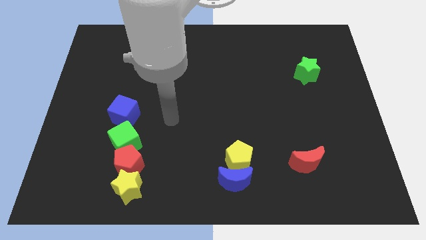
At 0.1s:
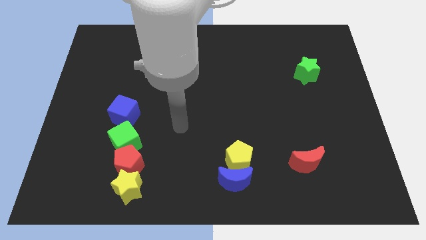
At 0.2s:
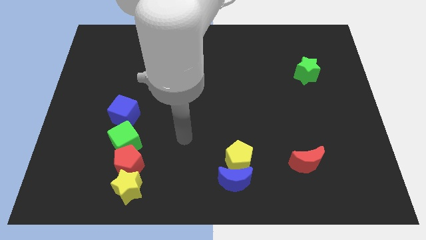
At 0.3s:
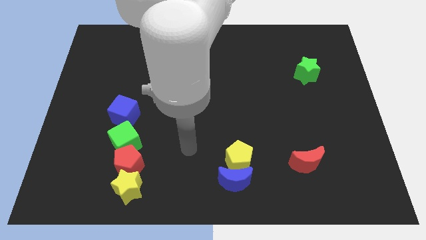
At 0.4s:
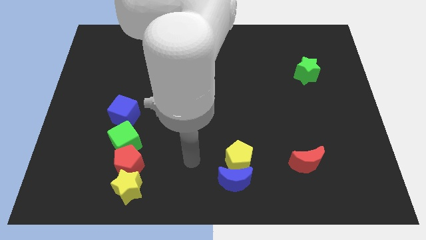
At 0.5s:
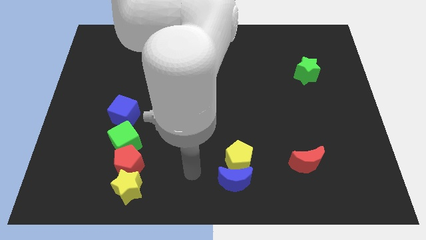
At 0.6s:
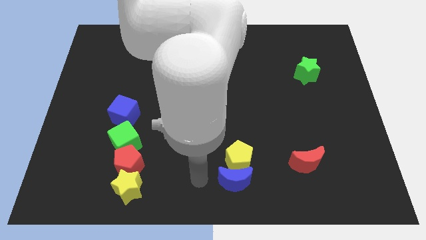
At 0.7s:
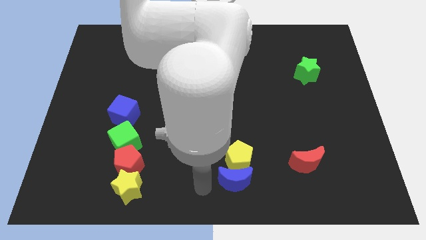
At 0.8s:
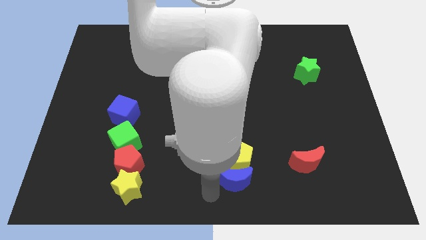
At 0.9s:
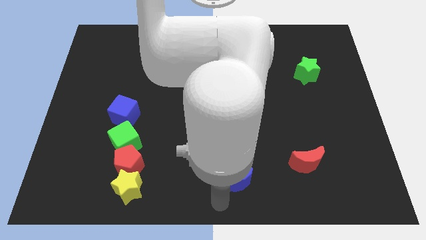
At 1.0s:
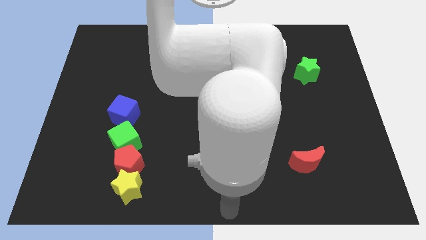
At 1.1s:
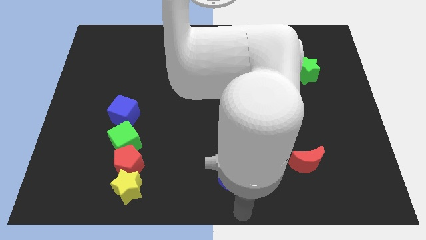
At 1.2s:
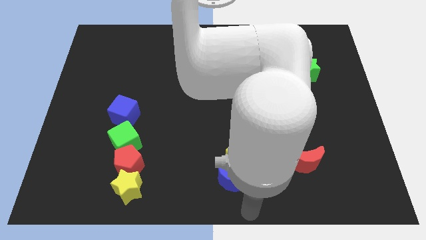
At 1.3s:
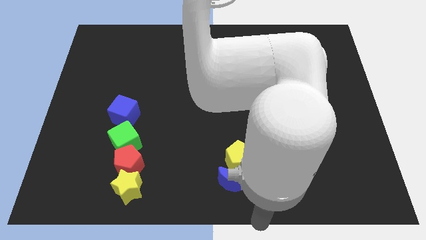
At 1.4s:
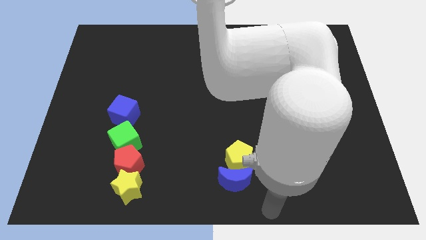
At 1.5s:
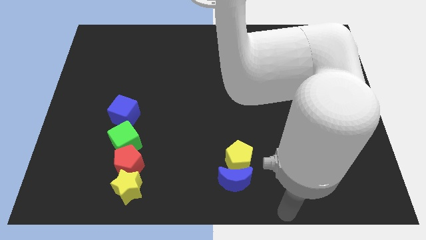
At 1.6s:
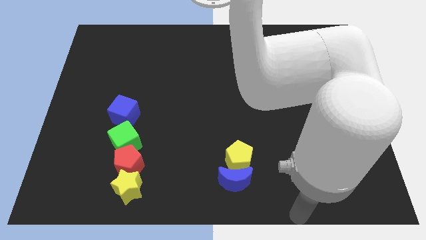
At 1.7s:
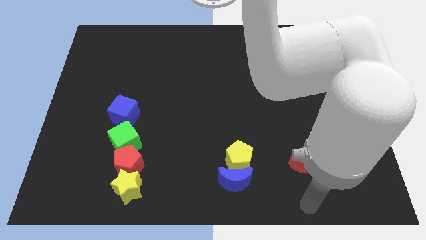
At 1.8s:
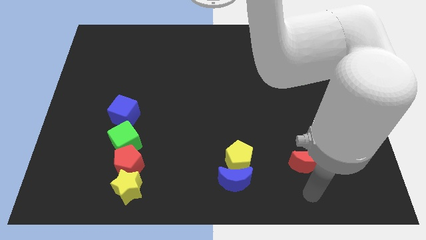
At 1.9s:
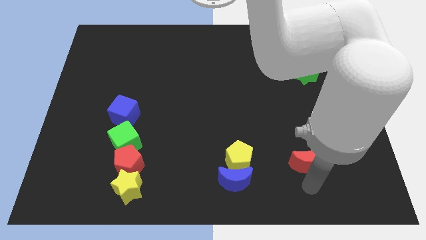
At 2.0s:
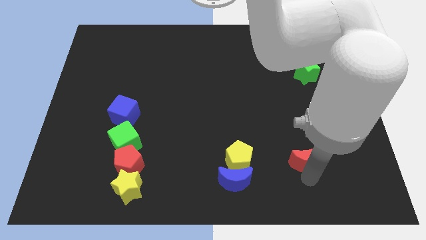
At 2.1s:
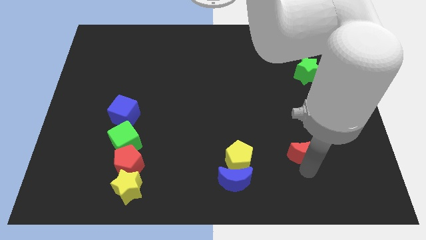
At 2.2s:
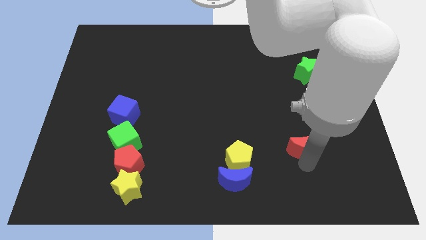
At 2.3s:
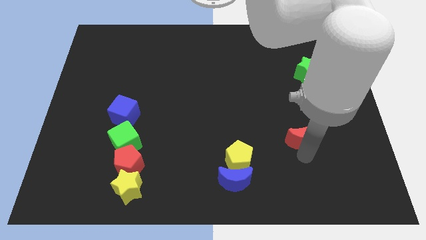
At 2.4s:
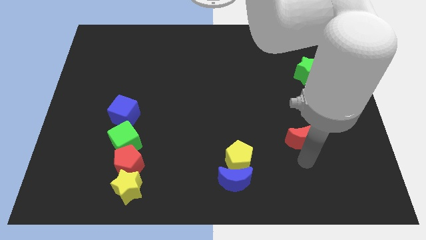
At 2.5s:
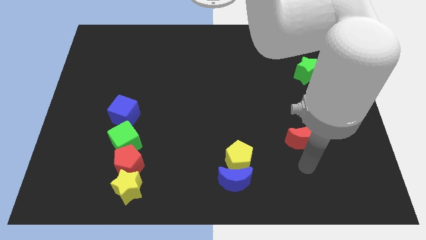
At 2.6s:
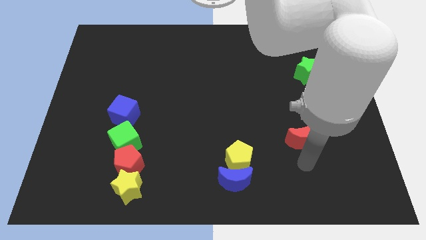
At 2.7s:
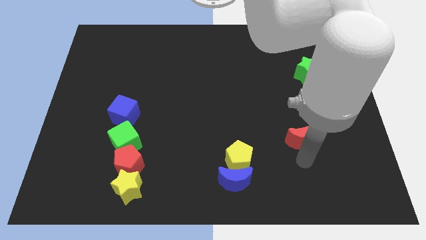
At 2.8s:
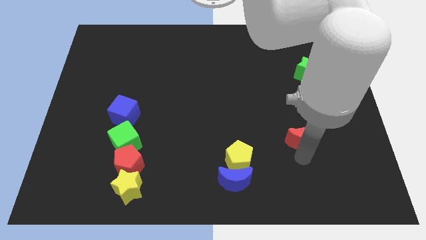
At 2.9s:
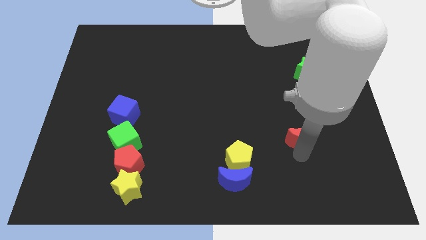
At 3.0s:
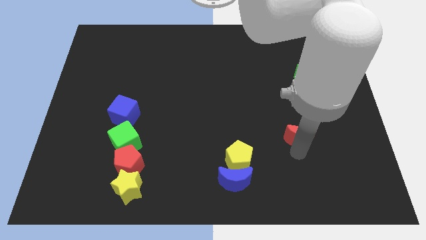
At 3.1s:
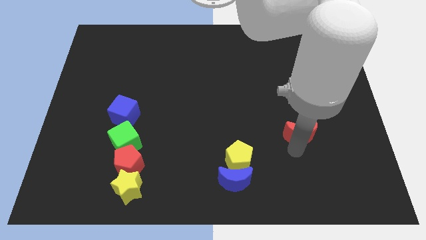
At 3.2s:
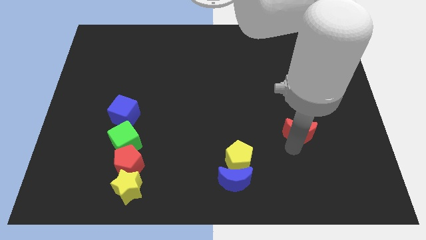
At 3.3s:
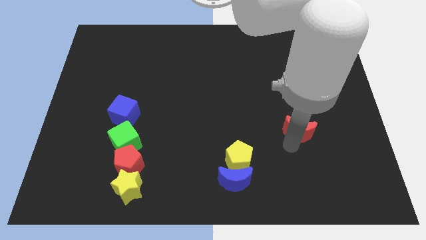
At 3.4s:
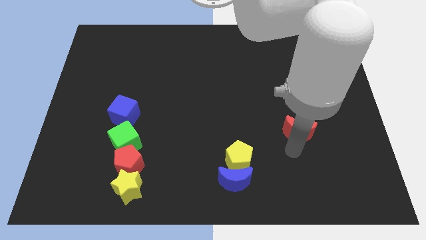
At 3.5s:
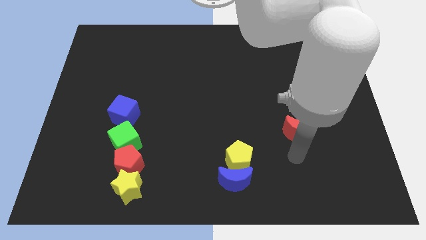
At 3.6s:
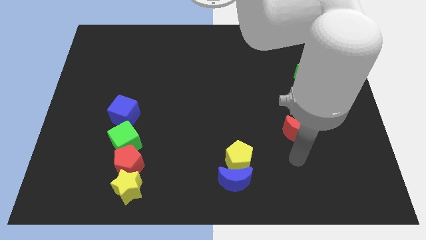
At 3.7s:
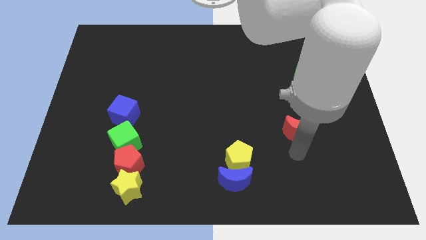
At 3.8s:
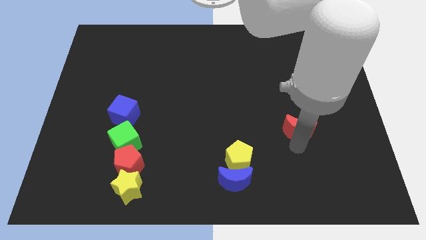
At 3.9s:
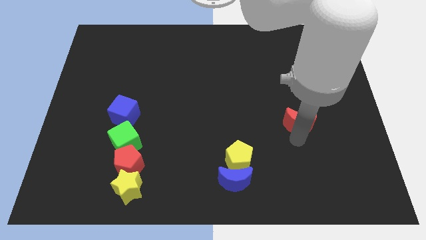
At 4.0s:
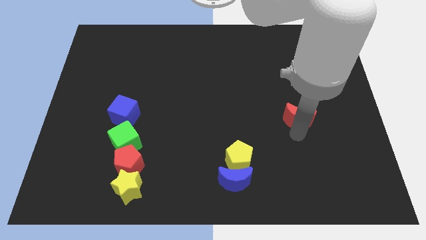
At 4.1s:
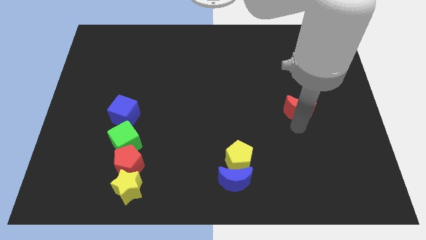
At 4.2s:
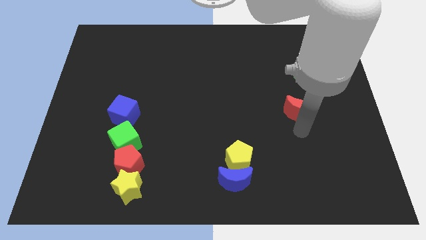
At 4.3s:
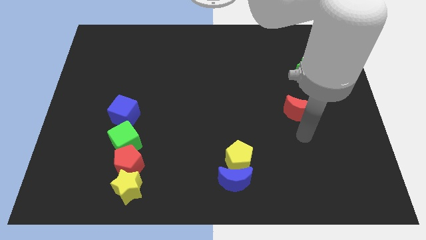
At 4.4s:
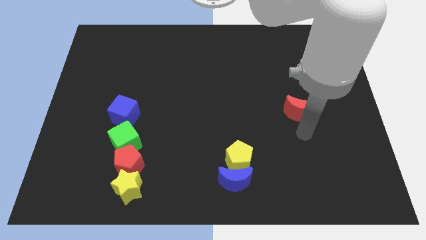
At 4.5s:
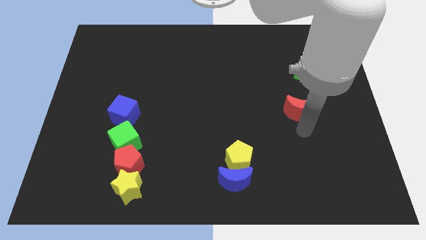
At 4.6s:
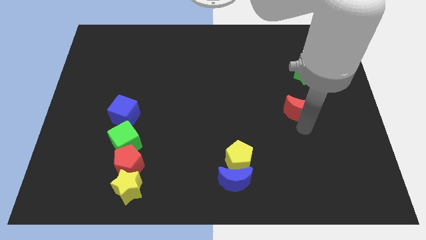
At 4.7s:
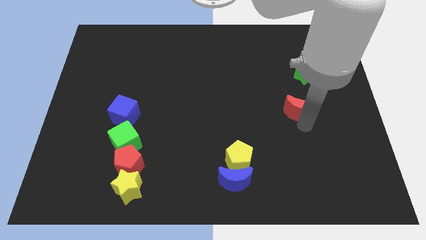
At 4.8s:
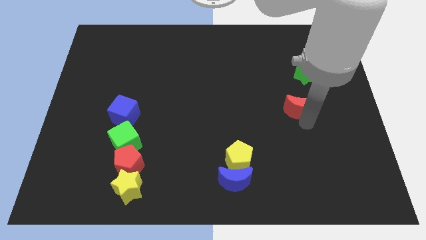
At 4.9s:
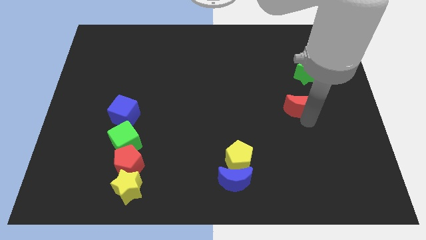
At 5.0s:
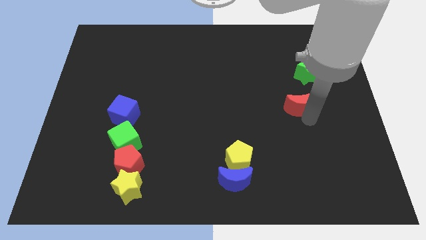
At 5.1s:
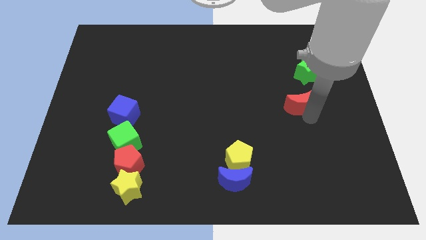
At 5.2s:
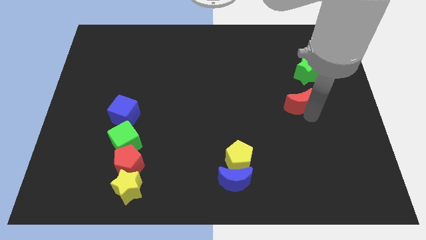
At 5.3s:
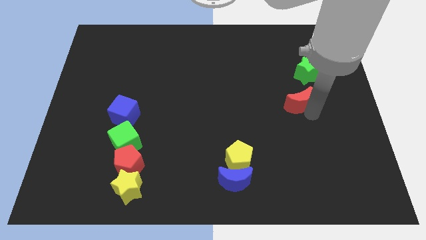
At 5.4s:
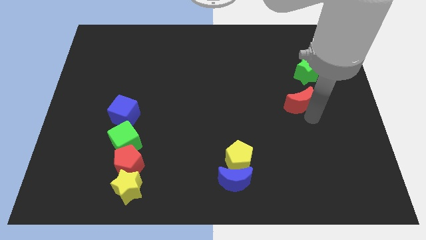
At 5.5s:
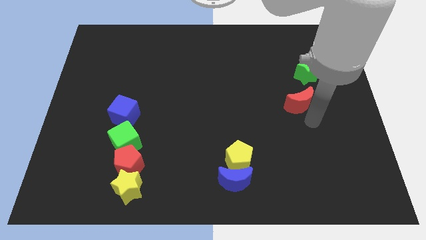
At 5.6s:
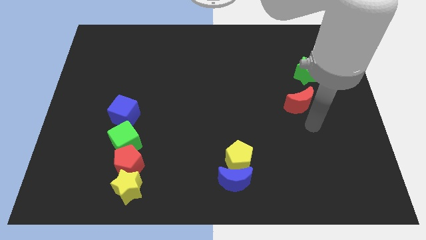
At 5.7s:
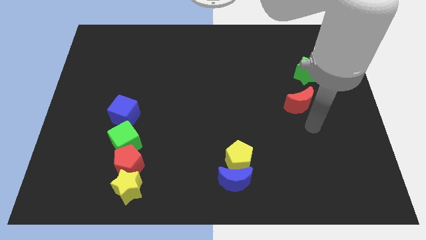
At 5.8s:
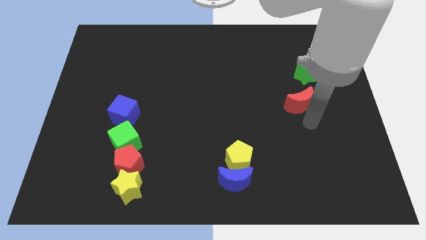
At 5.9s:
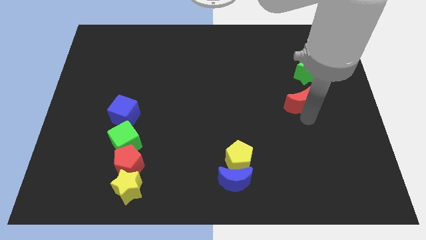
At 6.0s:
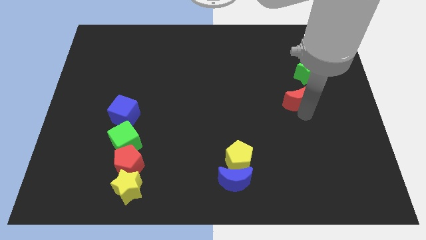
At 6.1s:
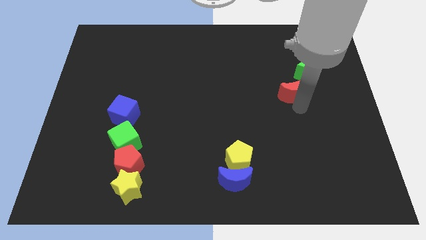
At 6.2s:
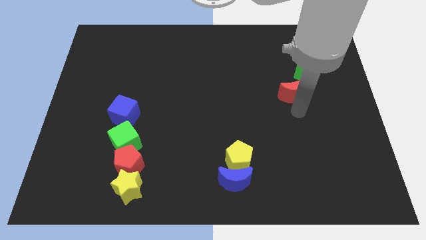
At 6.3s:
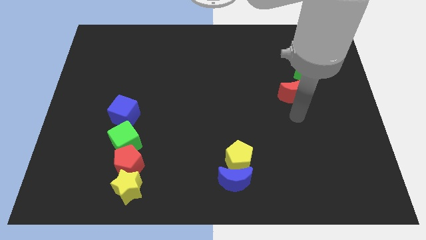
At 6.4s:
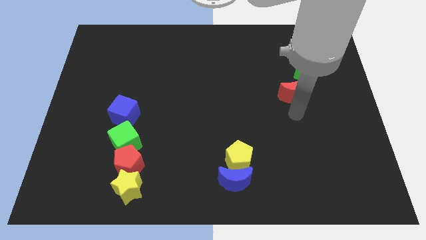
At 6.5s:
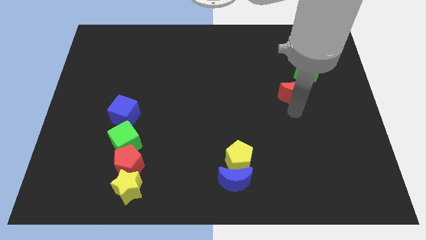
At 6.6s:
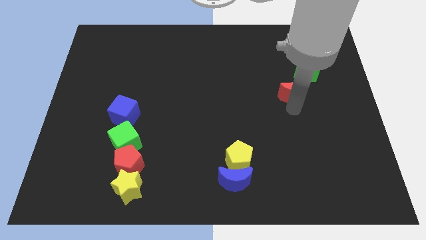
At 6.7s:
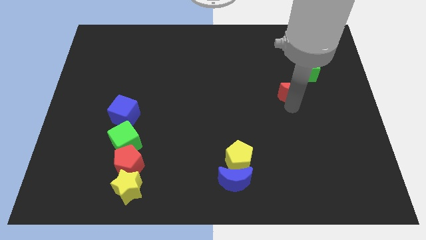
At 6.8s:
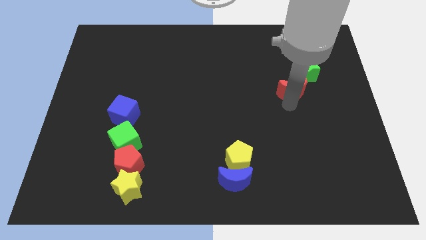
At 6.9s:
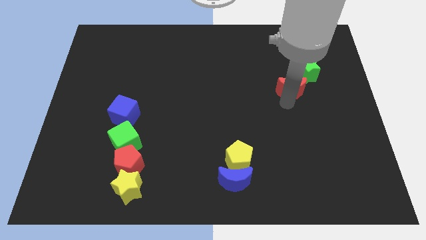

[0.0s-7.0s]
slide the red moon up

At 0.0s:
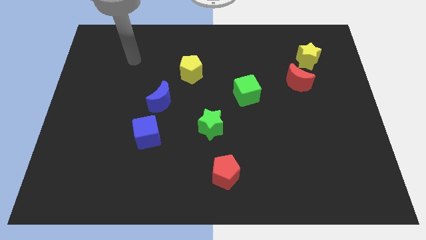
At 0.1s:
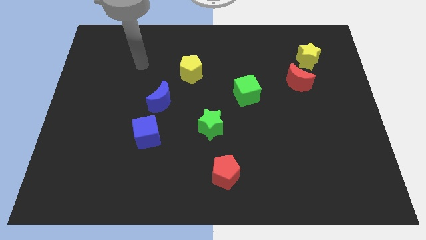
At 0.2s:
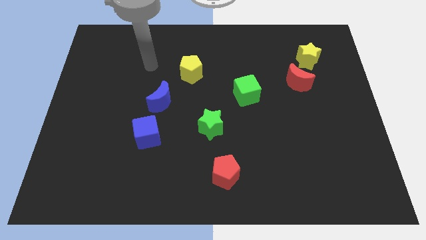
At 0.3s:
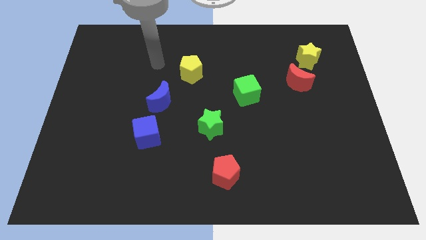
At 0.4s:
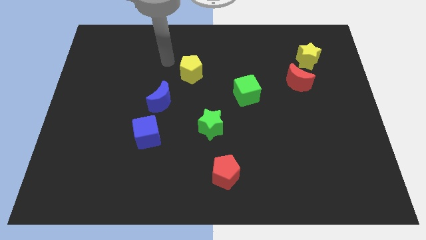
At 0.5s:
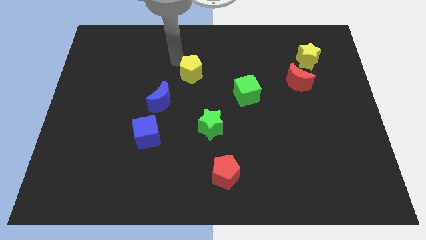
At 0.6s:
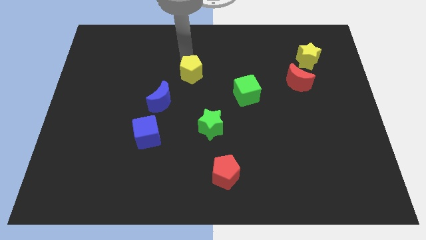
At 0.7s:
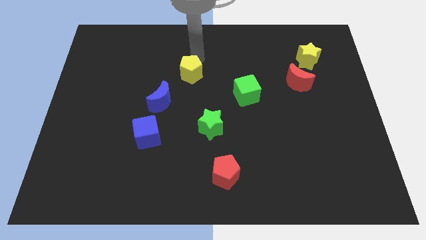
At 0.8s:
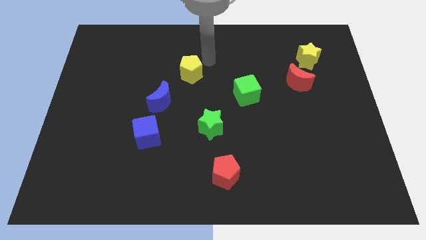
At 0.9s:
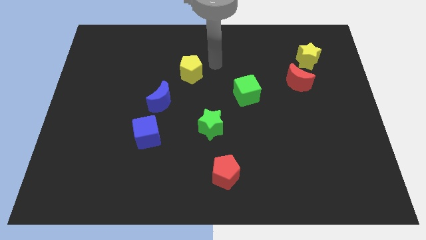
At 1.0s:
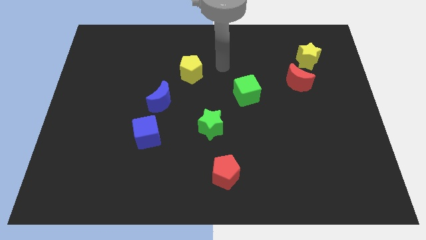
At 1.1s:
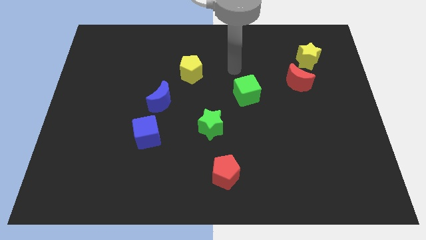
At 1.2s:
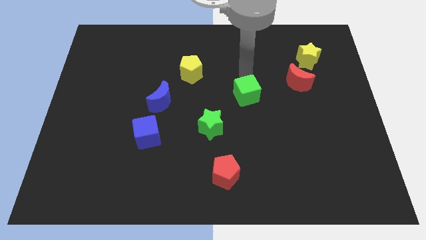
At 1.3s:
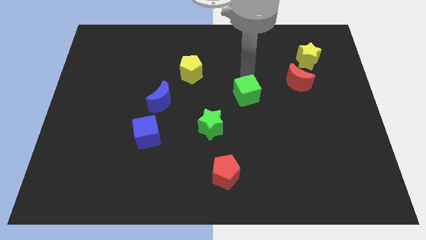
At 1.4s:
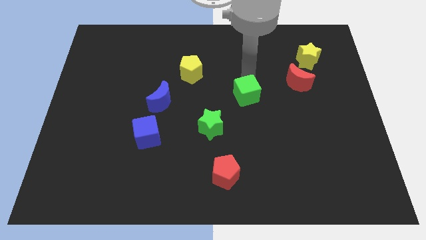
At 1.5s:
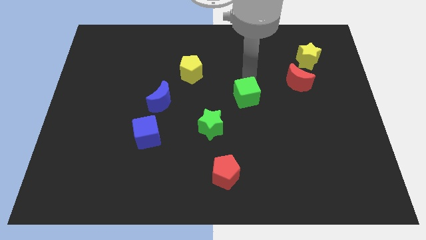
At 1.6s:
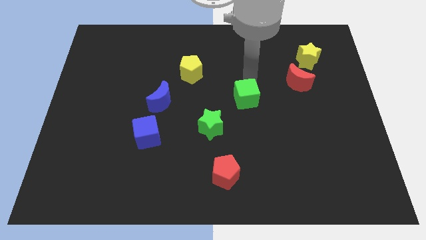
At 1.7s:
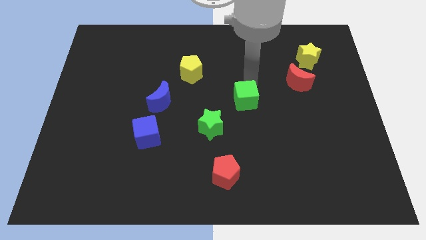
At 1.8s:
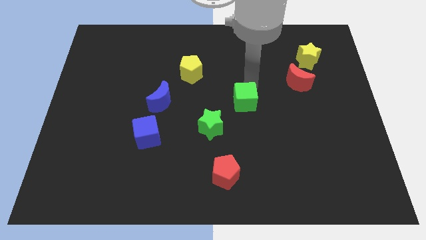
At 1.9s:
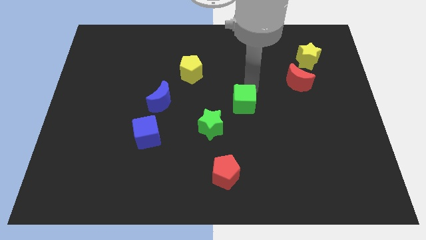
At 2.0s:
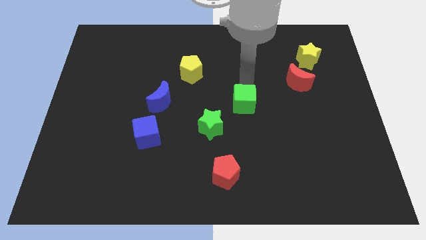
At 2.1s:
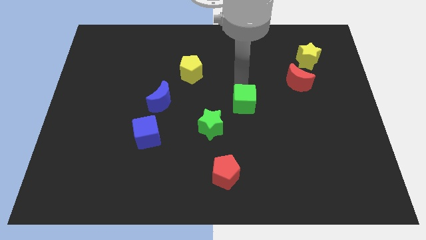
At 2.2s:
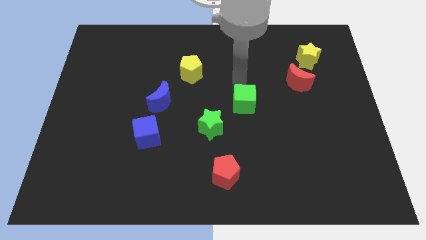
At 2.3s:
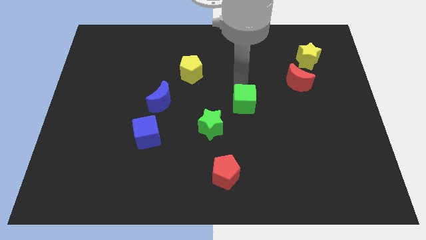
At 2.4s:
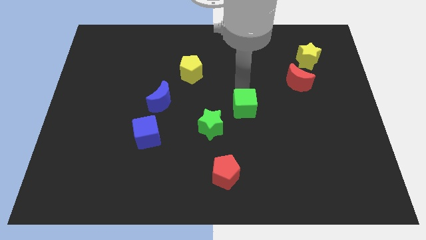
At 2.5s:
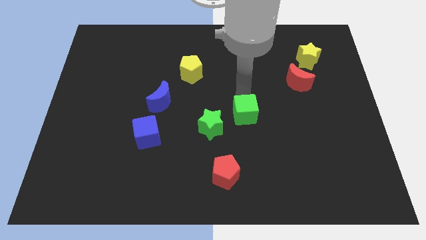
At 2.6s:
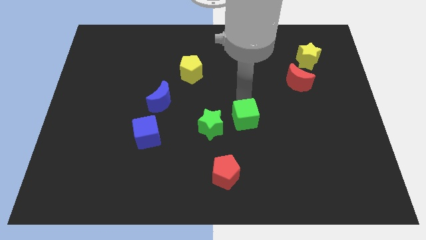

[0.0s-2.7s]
slightly push the green cube down
